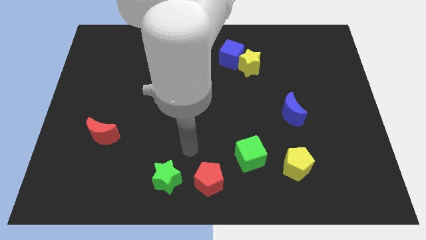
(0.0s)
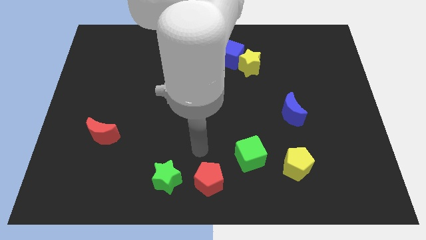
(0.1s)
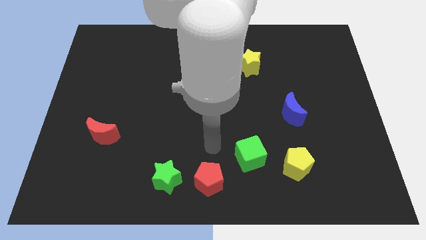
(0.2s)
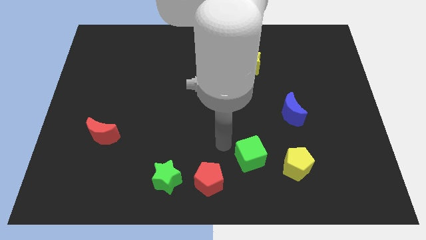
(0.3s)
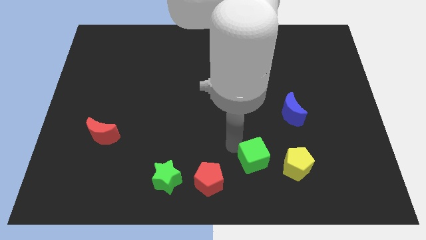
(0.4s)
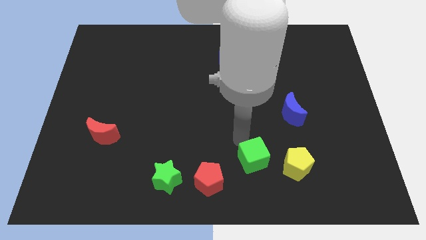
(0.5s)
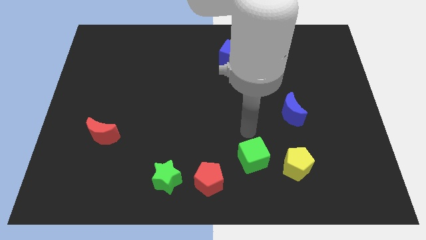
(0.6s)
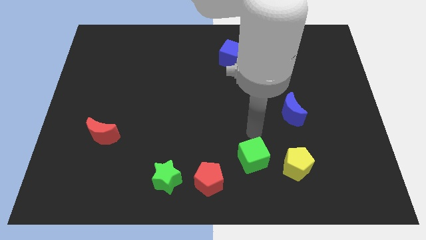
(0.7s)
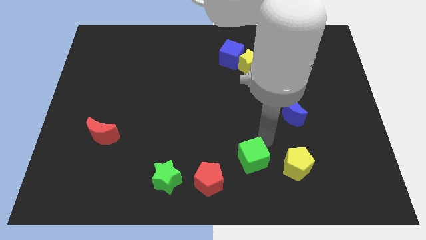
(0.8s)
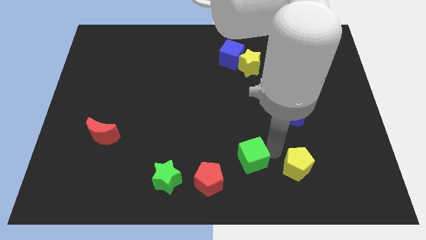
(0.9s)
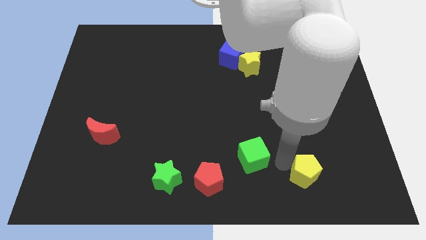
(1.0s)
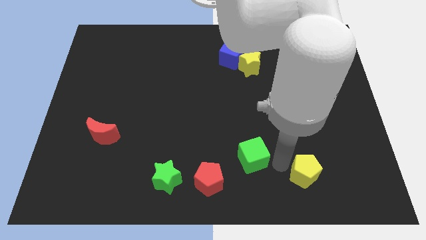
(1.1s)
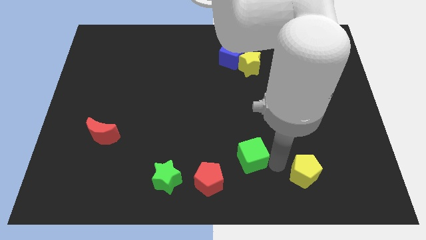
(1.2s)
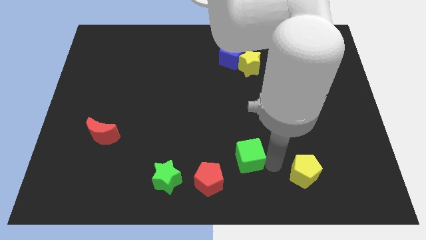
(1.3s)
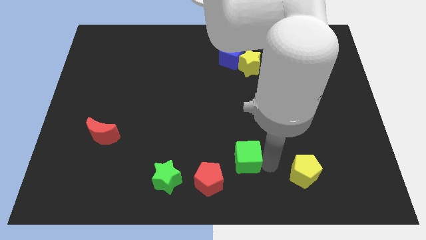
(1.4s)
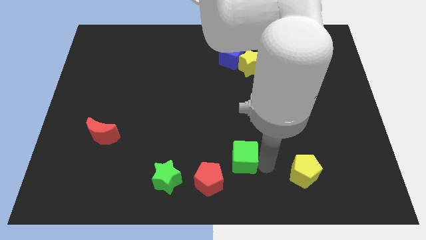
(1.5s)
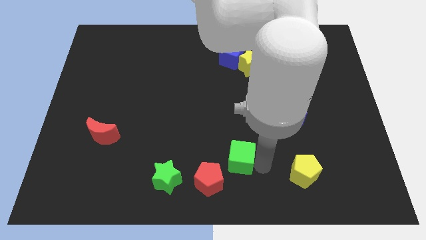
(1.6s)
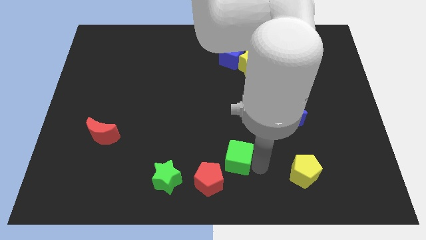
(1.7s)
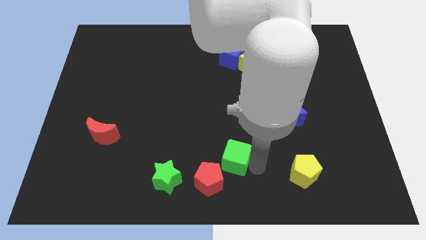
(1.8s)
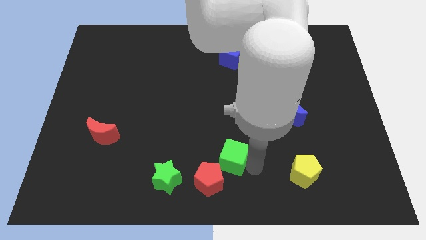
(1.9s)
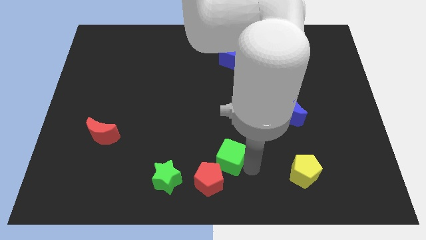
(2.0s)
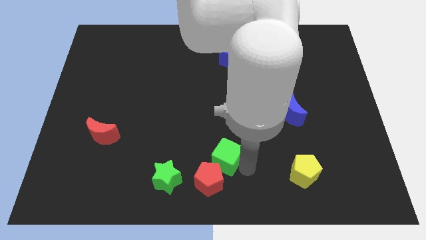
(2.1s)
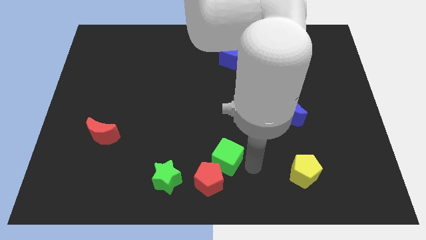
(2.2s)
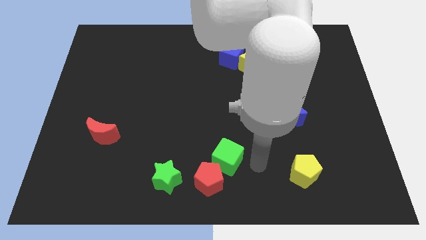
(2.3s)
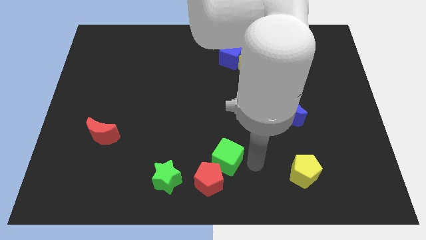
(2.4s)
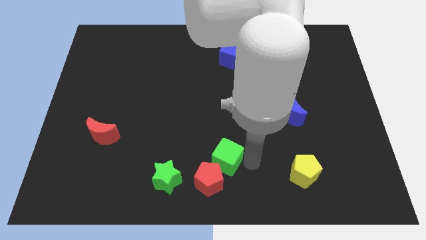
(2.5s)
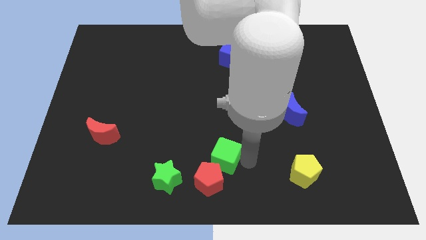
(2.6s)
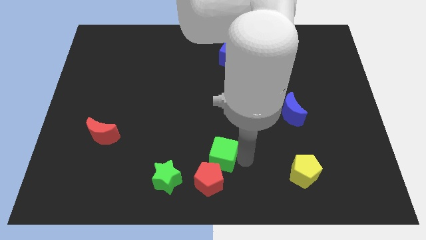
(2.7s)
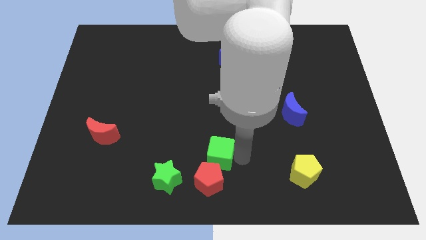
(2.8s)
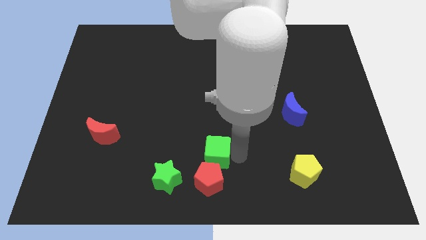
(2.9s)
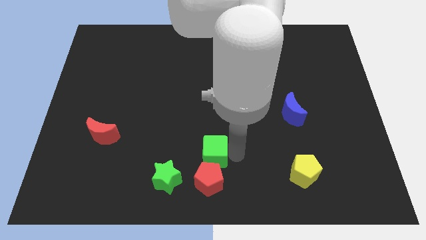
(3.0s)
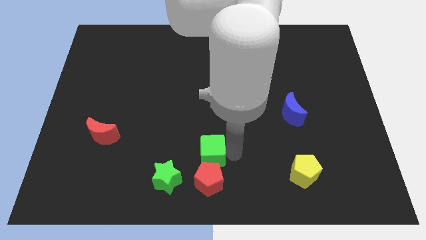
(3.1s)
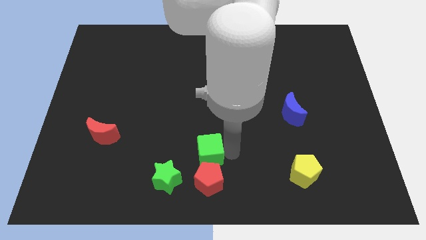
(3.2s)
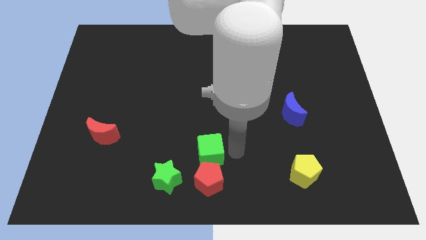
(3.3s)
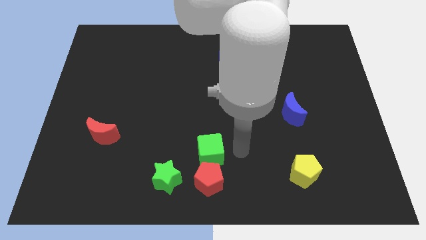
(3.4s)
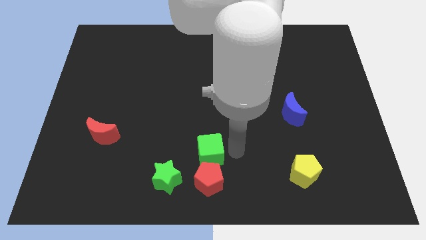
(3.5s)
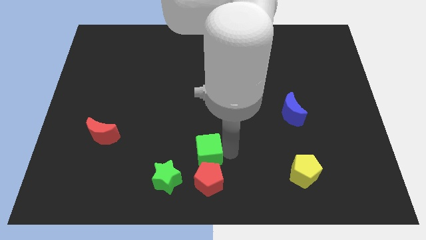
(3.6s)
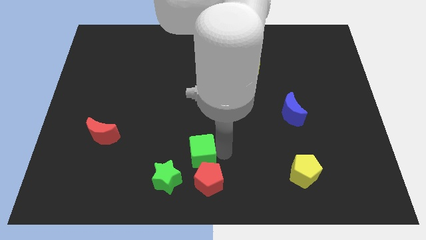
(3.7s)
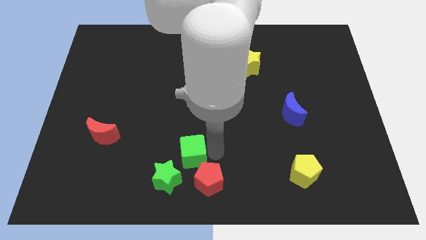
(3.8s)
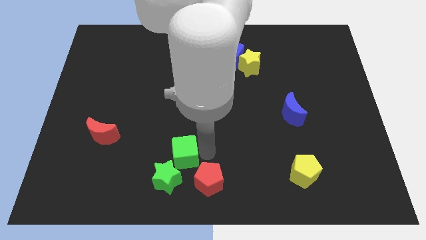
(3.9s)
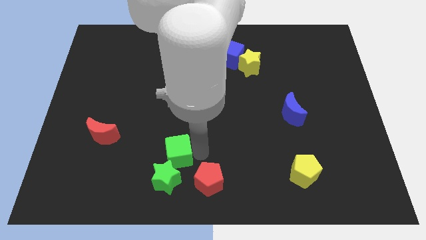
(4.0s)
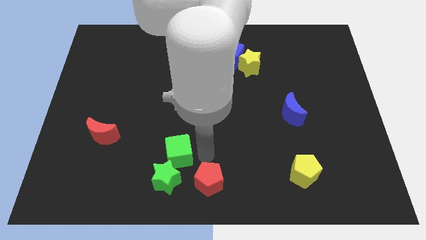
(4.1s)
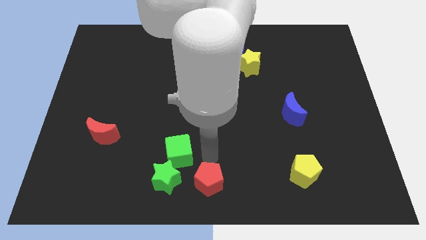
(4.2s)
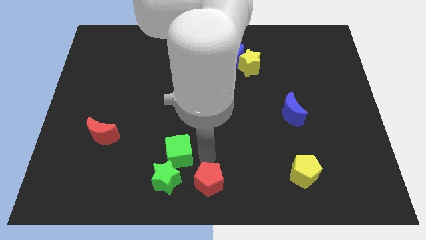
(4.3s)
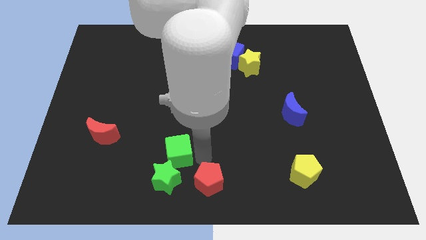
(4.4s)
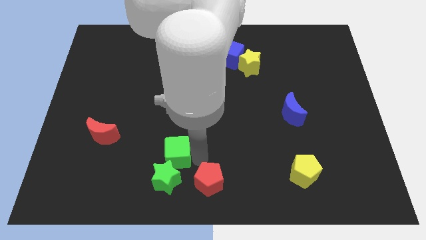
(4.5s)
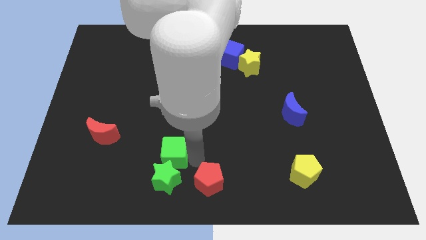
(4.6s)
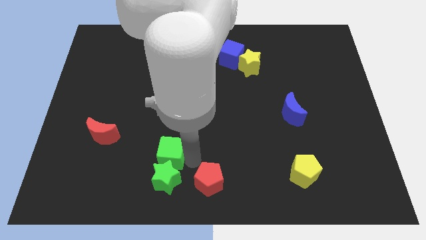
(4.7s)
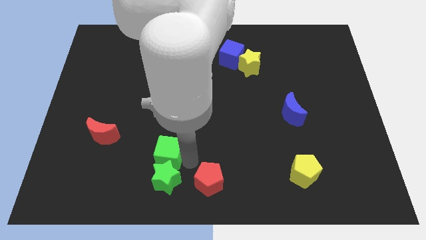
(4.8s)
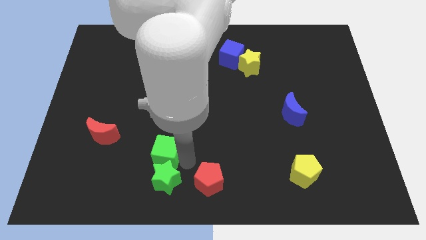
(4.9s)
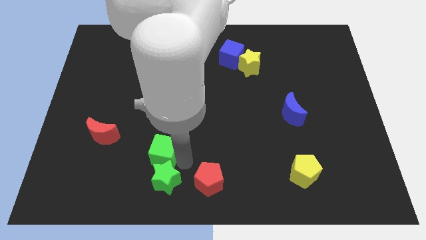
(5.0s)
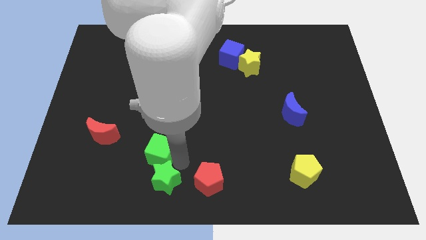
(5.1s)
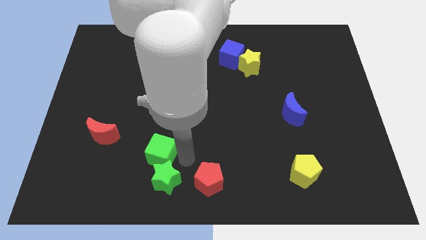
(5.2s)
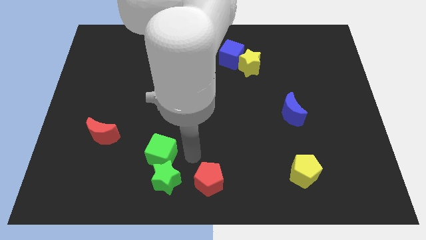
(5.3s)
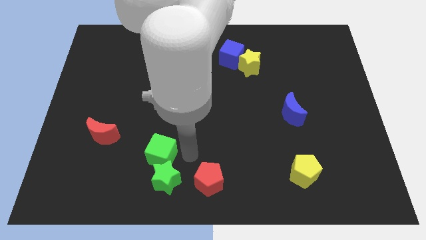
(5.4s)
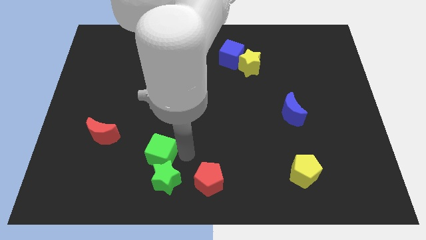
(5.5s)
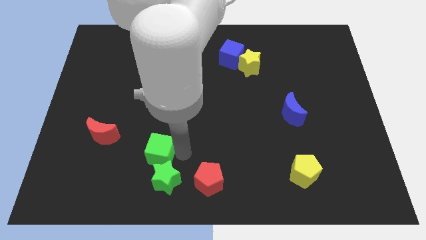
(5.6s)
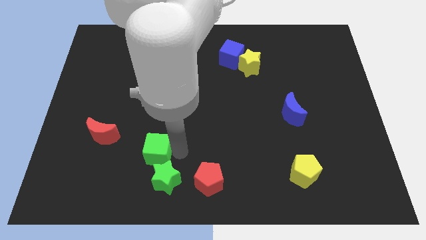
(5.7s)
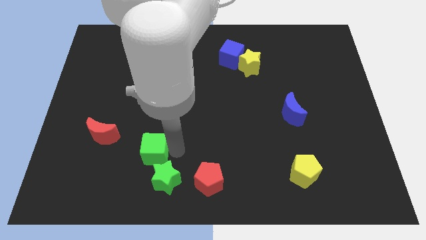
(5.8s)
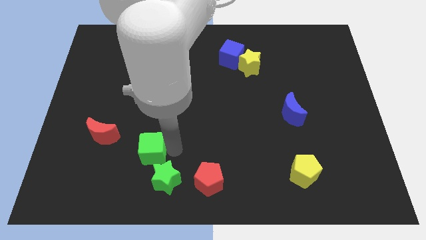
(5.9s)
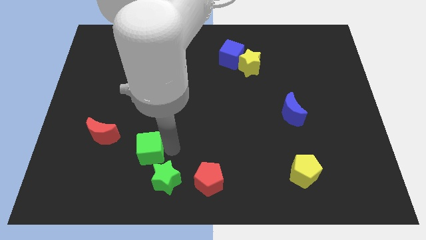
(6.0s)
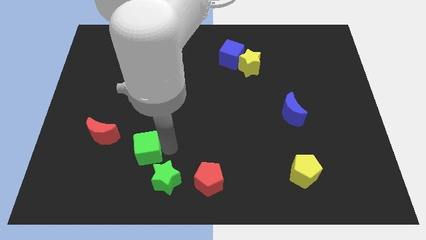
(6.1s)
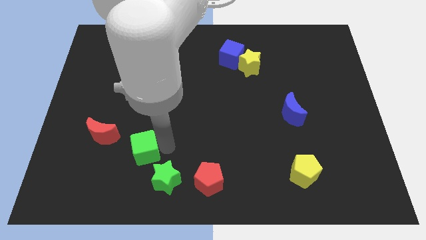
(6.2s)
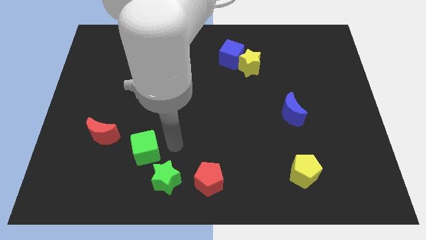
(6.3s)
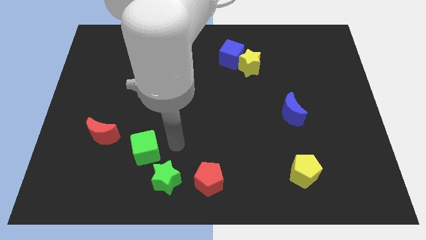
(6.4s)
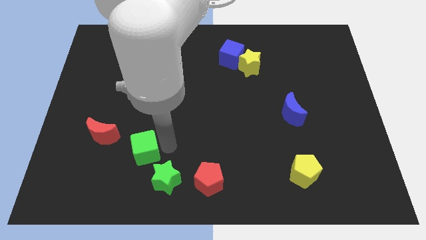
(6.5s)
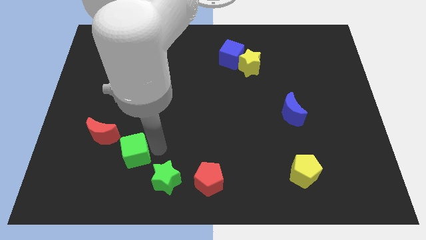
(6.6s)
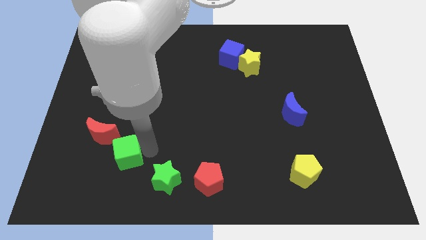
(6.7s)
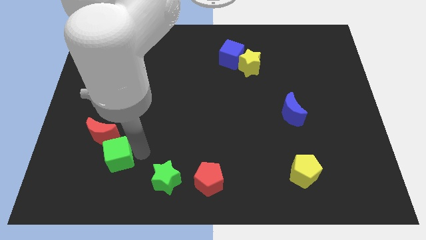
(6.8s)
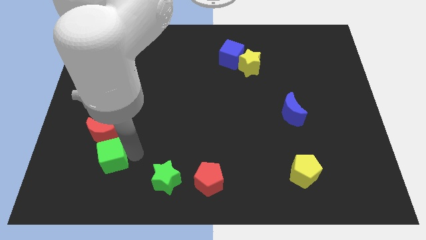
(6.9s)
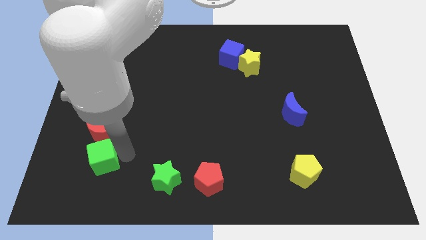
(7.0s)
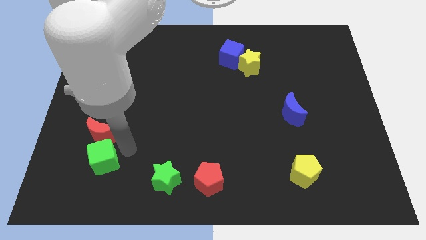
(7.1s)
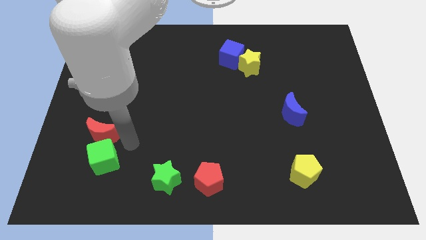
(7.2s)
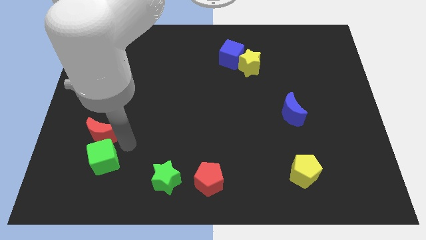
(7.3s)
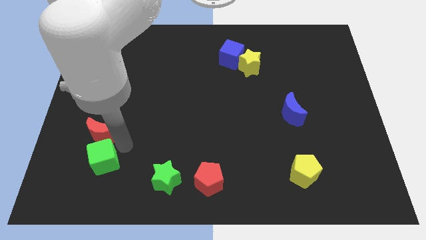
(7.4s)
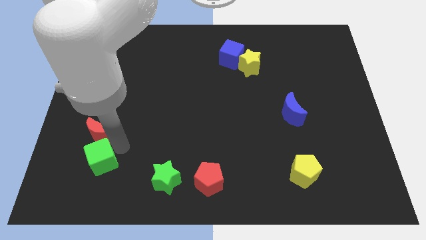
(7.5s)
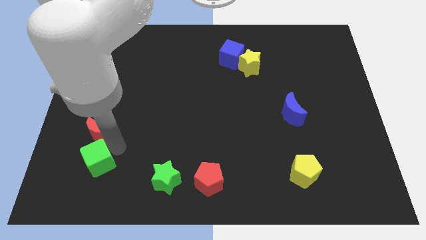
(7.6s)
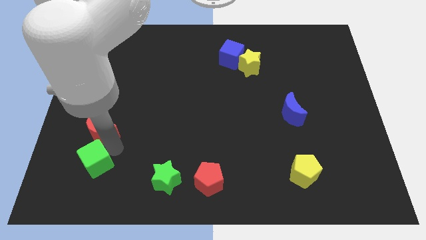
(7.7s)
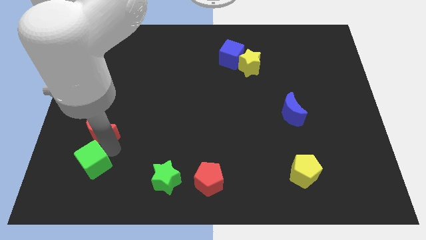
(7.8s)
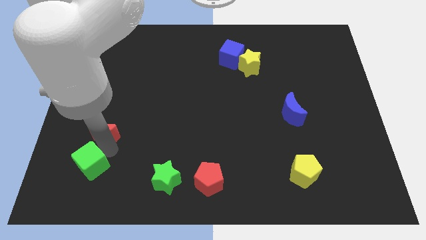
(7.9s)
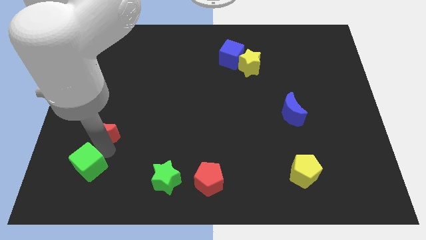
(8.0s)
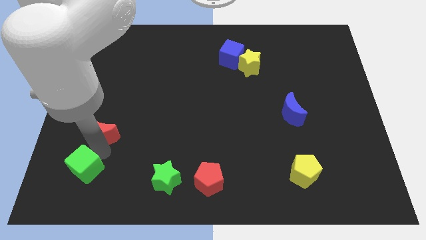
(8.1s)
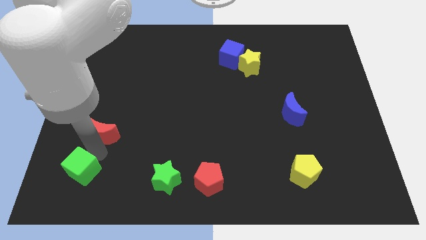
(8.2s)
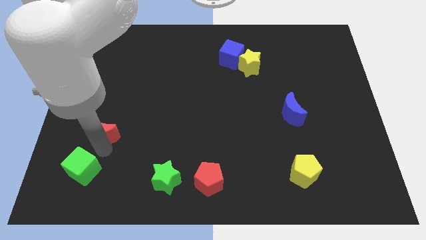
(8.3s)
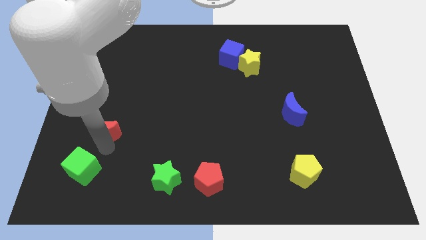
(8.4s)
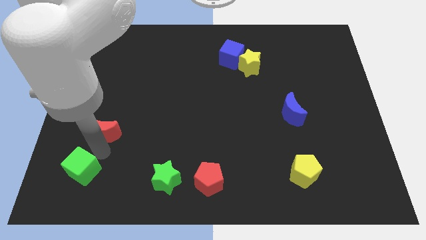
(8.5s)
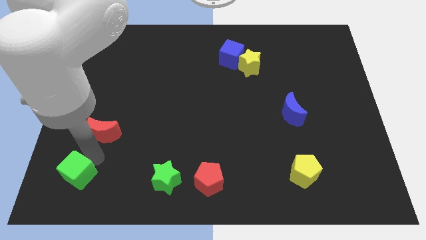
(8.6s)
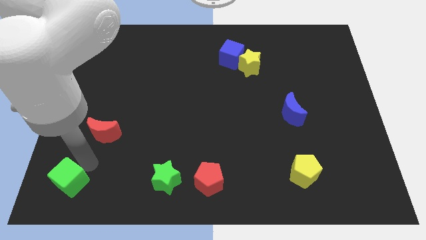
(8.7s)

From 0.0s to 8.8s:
slide the green cube to the bottom left corner
